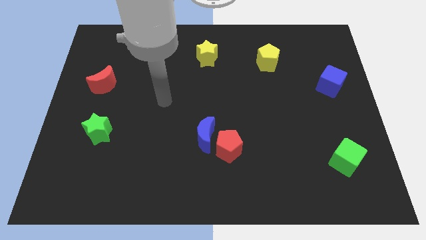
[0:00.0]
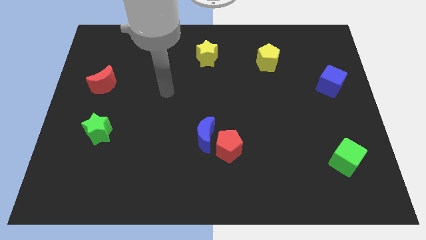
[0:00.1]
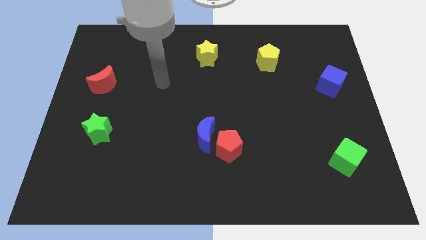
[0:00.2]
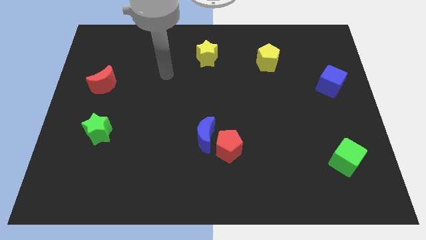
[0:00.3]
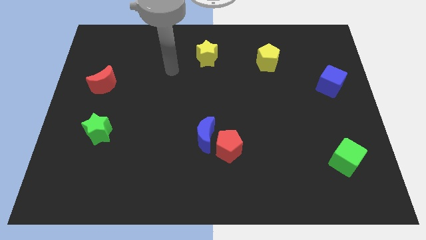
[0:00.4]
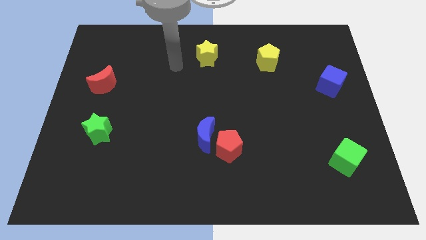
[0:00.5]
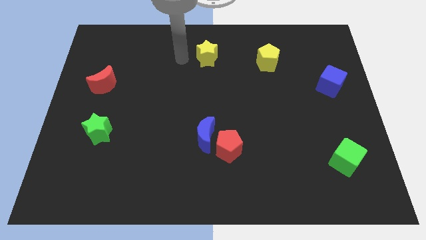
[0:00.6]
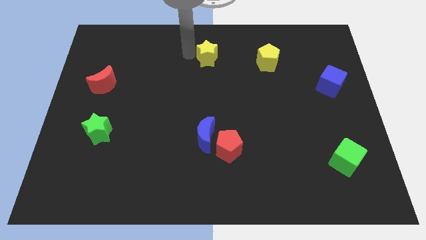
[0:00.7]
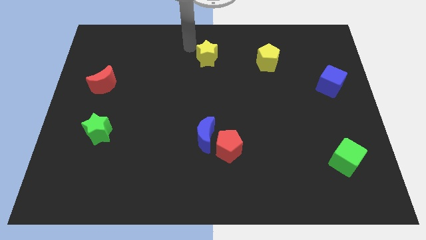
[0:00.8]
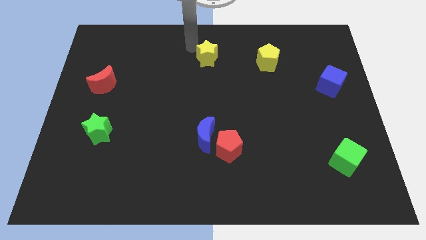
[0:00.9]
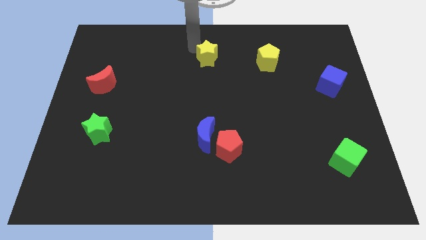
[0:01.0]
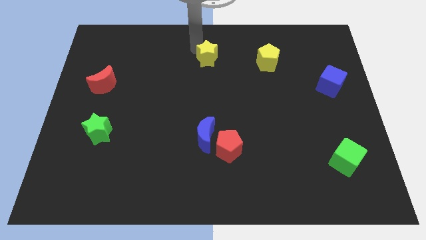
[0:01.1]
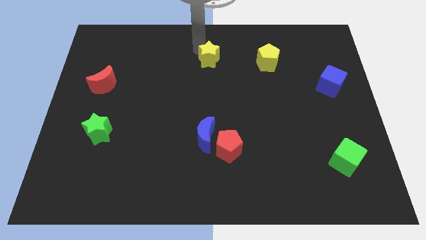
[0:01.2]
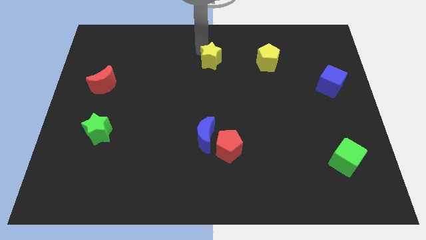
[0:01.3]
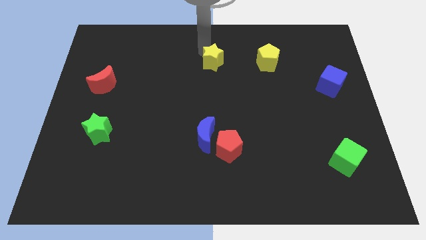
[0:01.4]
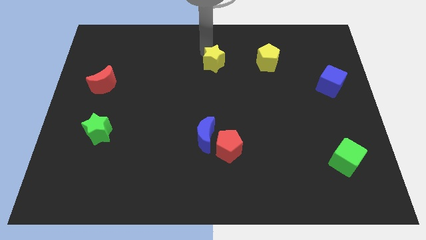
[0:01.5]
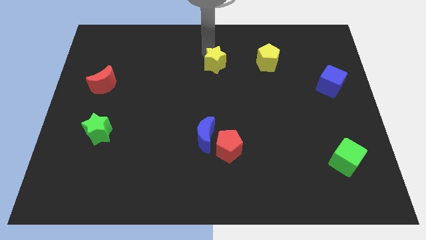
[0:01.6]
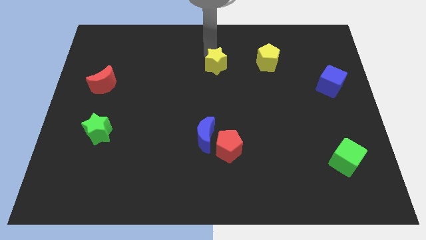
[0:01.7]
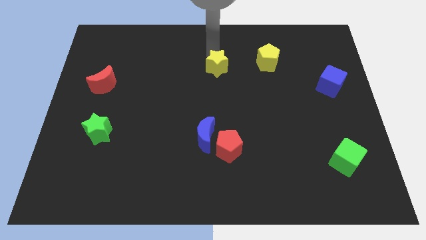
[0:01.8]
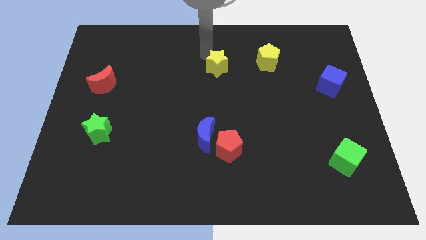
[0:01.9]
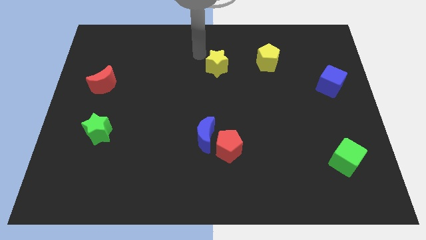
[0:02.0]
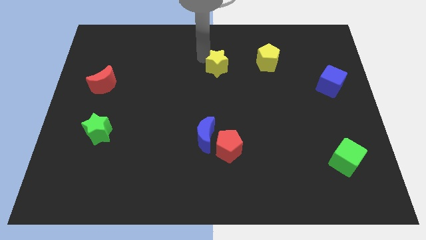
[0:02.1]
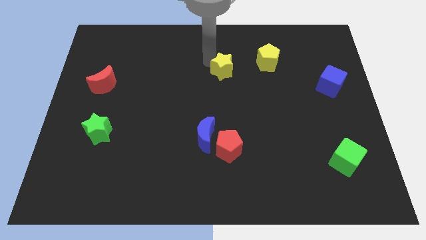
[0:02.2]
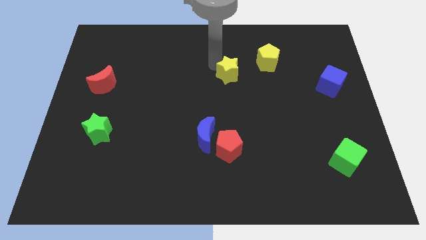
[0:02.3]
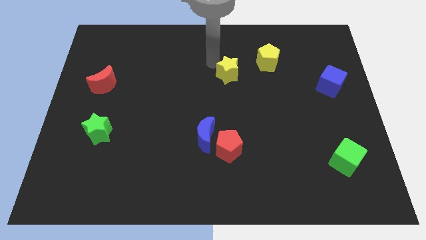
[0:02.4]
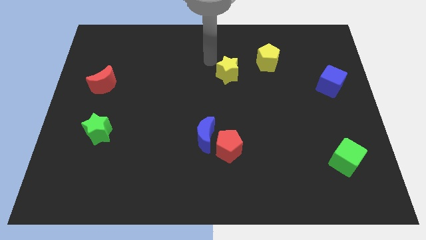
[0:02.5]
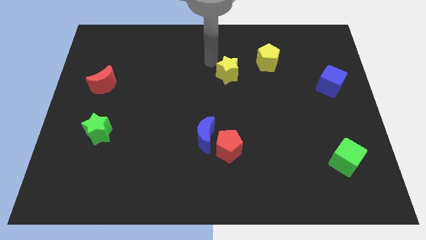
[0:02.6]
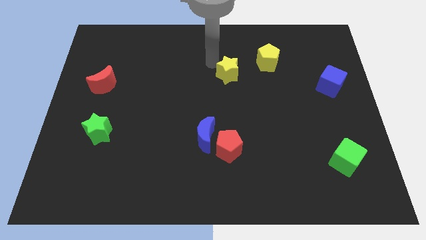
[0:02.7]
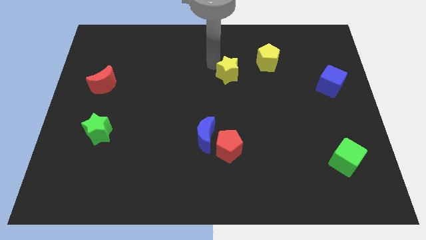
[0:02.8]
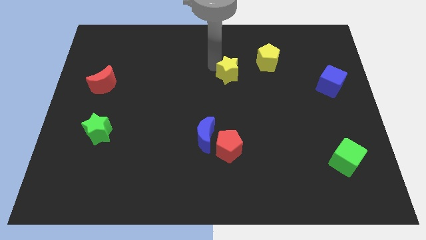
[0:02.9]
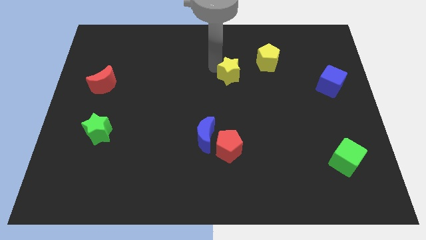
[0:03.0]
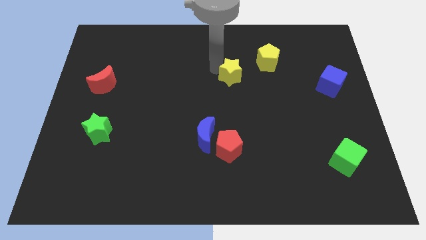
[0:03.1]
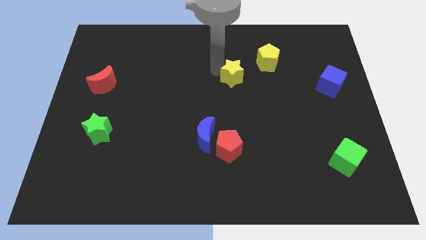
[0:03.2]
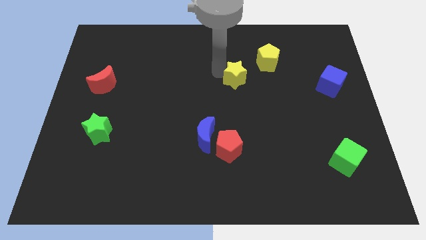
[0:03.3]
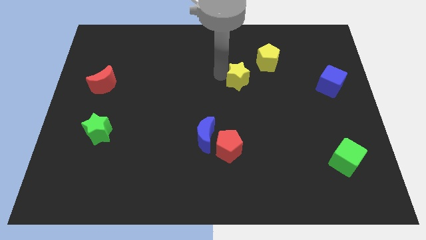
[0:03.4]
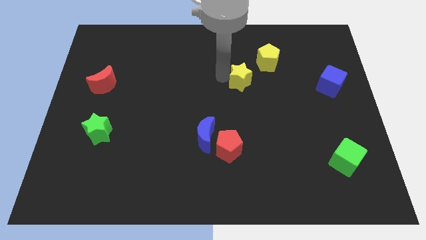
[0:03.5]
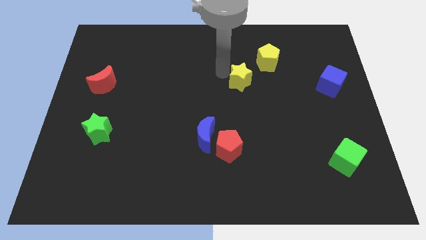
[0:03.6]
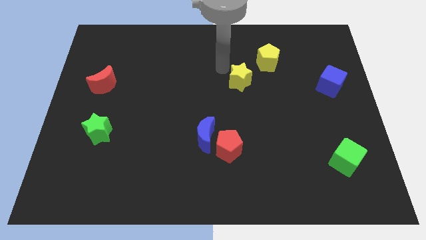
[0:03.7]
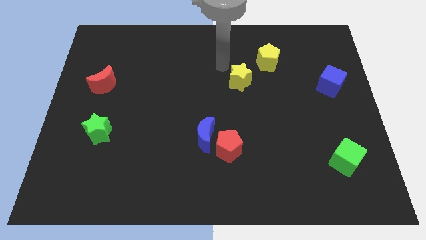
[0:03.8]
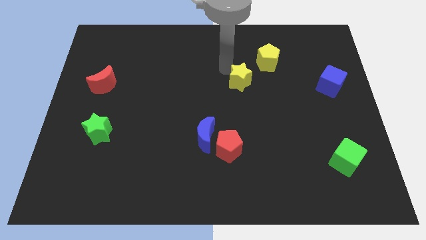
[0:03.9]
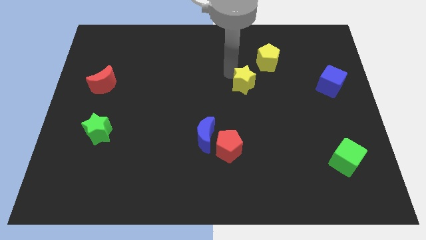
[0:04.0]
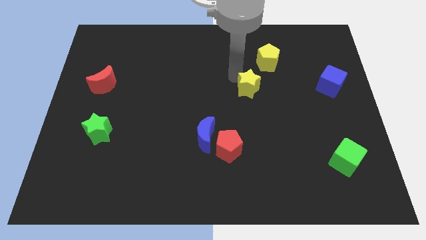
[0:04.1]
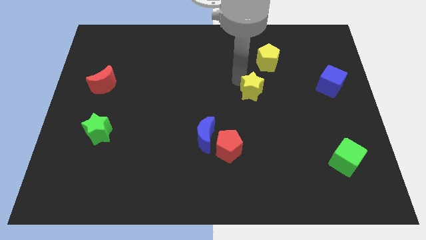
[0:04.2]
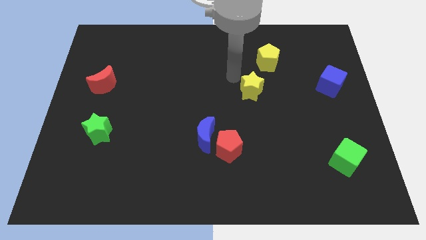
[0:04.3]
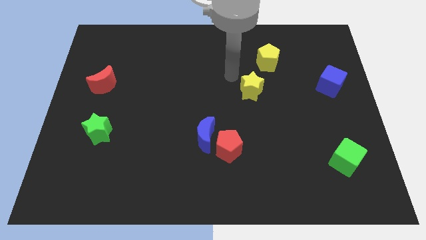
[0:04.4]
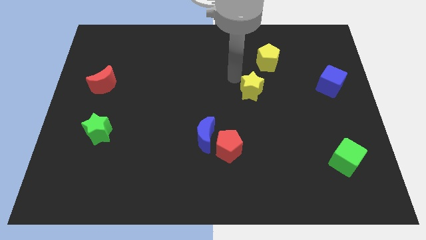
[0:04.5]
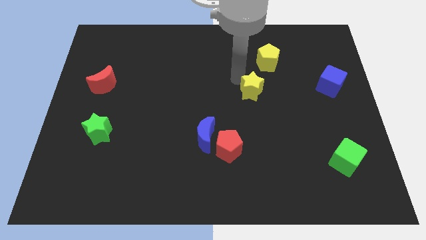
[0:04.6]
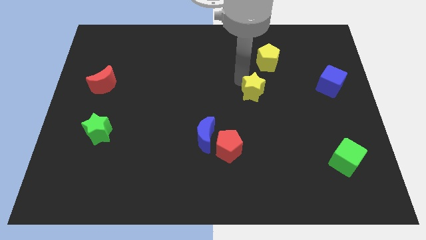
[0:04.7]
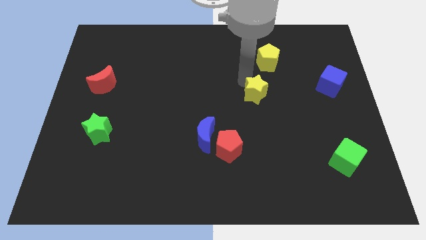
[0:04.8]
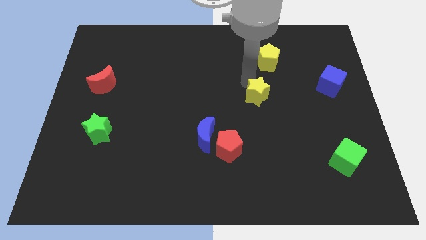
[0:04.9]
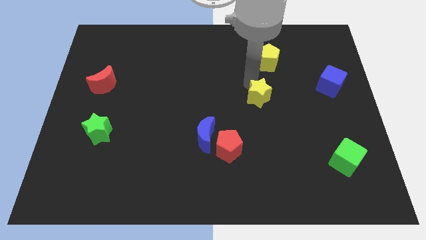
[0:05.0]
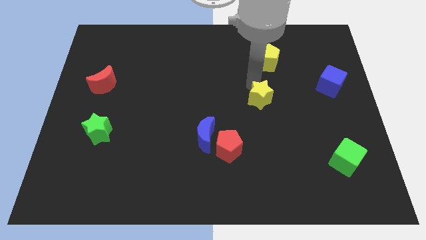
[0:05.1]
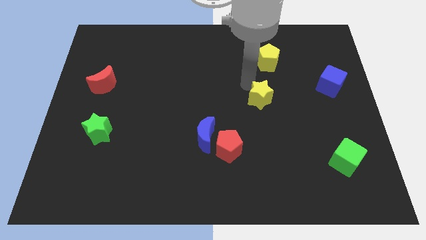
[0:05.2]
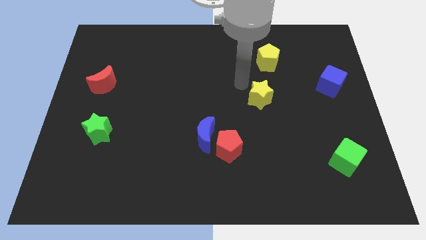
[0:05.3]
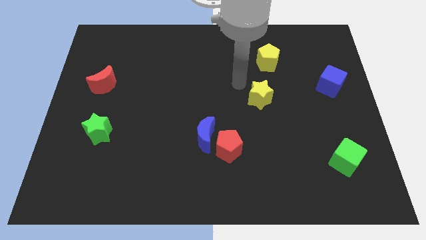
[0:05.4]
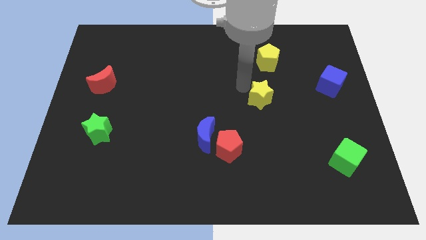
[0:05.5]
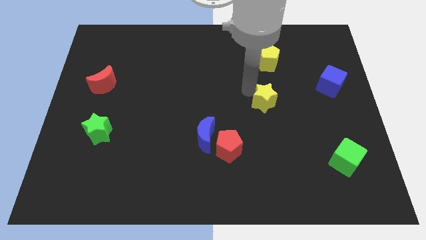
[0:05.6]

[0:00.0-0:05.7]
push the yellow star diagonally downwards and to the right

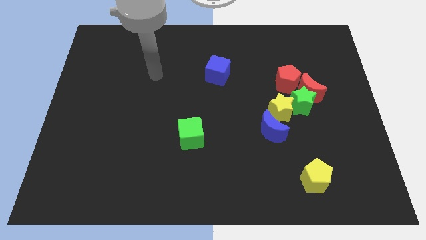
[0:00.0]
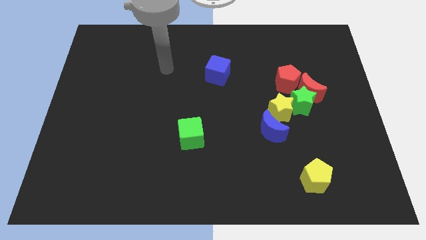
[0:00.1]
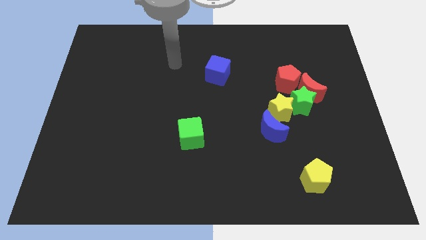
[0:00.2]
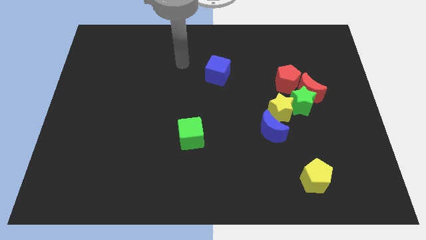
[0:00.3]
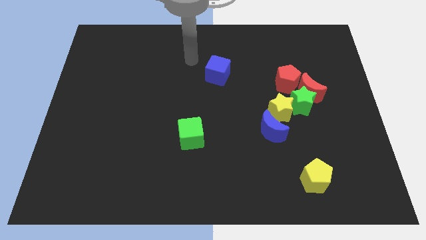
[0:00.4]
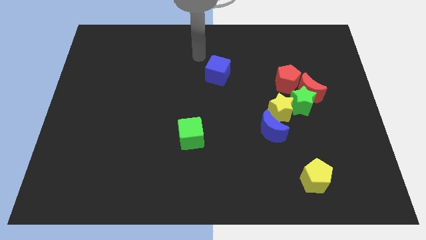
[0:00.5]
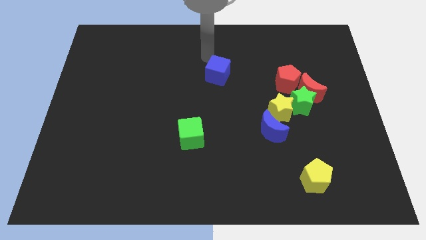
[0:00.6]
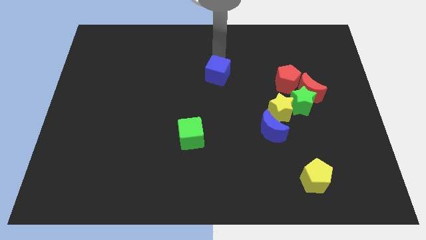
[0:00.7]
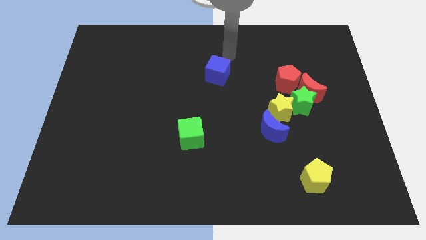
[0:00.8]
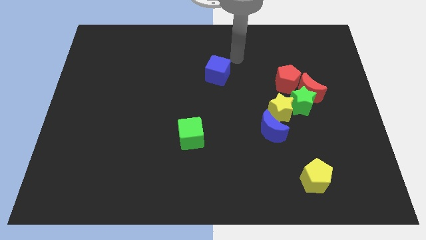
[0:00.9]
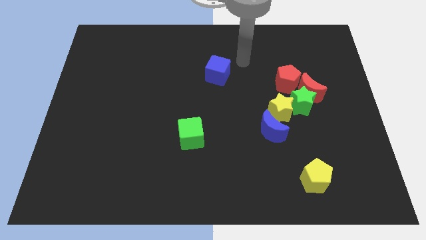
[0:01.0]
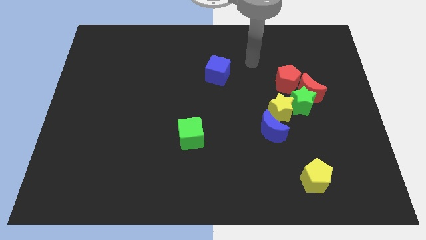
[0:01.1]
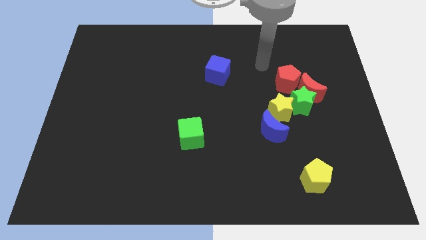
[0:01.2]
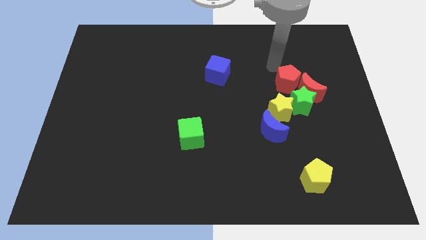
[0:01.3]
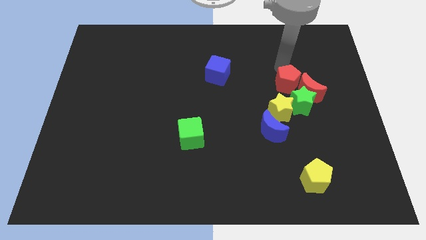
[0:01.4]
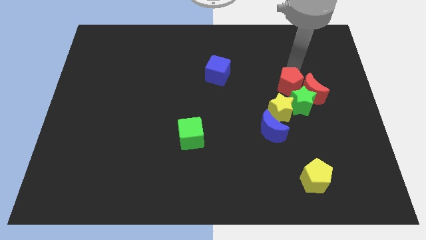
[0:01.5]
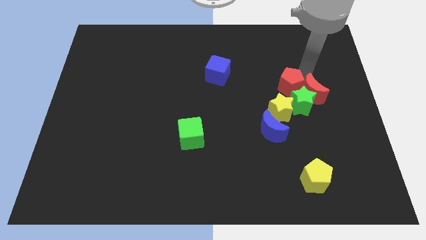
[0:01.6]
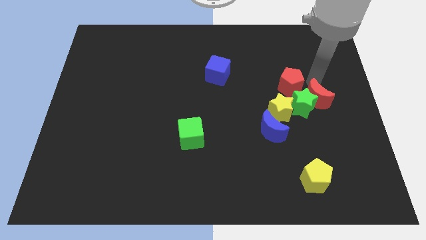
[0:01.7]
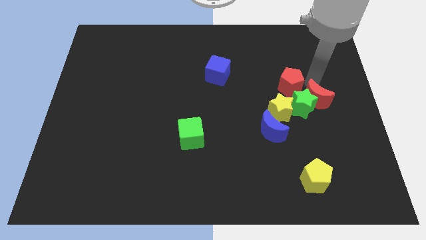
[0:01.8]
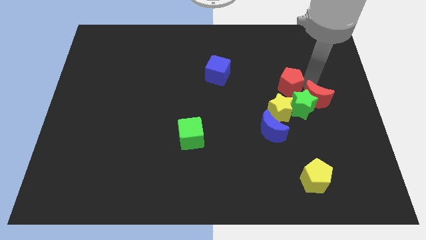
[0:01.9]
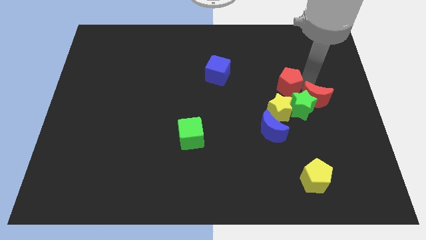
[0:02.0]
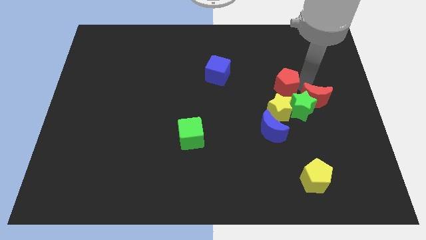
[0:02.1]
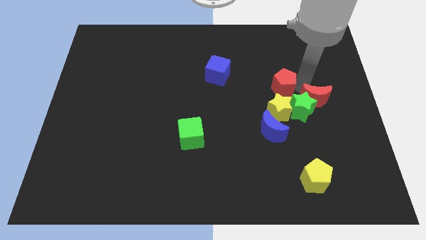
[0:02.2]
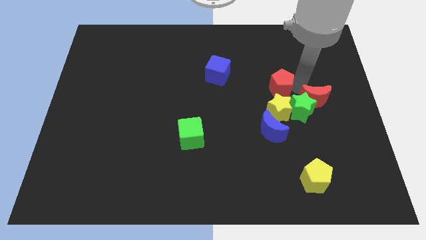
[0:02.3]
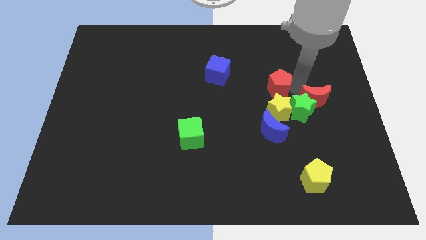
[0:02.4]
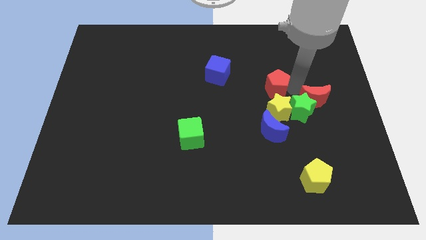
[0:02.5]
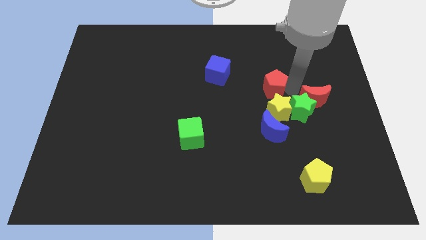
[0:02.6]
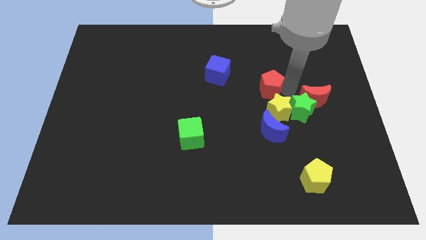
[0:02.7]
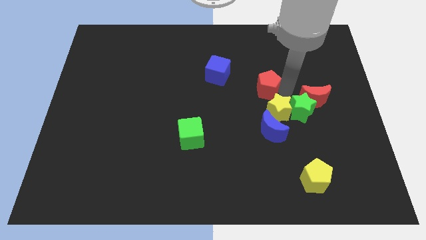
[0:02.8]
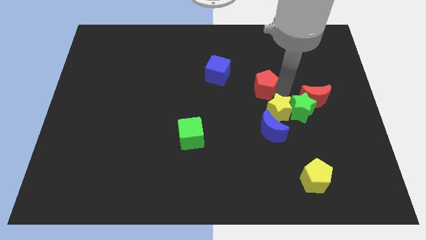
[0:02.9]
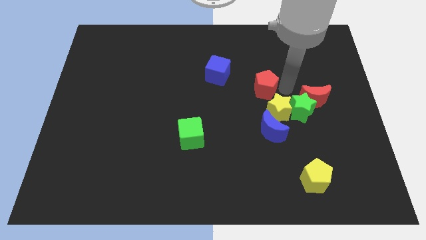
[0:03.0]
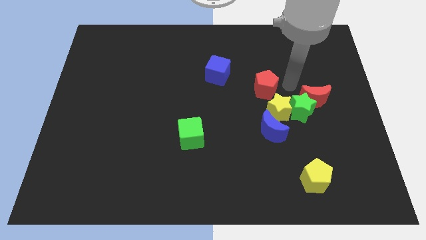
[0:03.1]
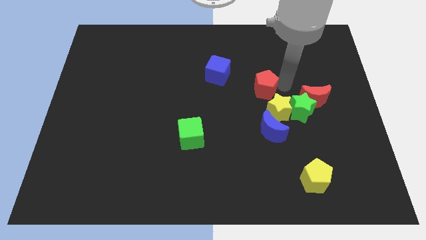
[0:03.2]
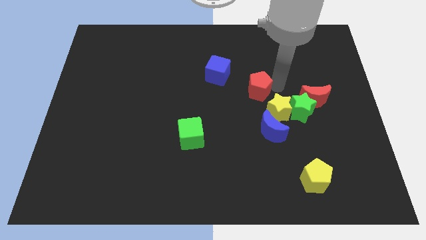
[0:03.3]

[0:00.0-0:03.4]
slightly push the red pentagon left
